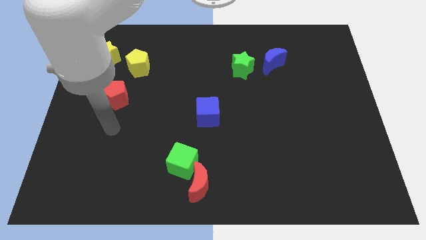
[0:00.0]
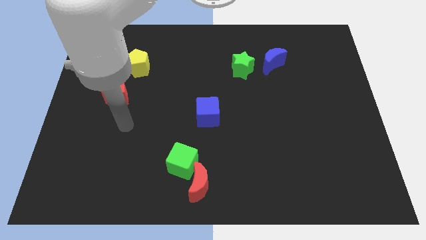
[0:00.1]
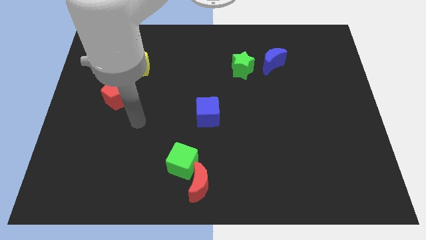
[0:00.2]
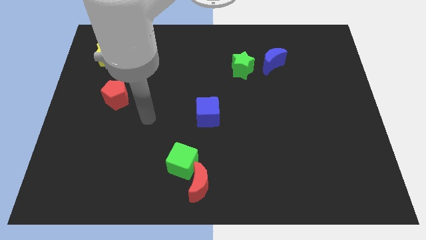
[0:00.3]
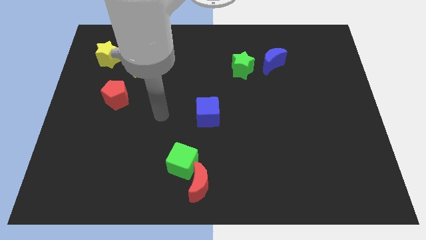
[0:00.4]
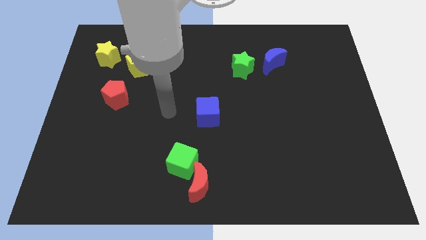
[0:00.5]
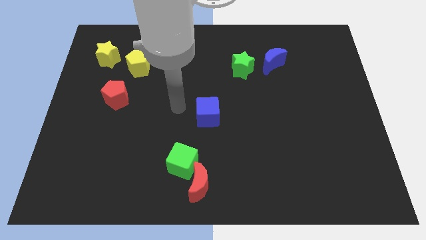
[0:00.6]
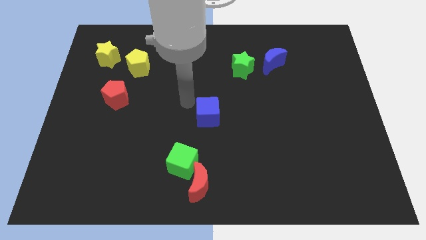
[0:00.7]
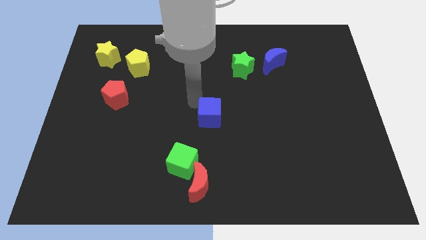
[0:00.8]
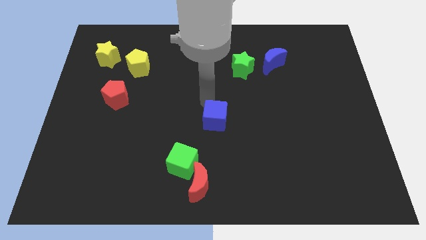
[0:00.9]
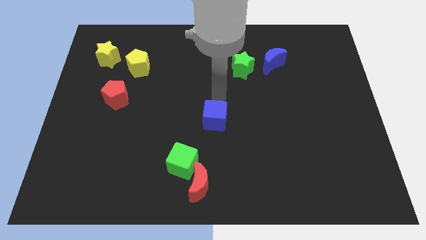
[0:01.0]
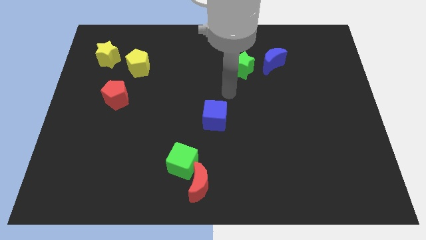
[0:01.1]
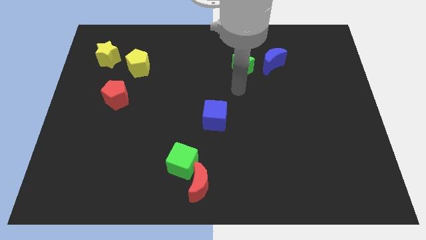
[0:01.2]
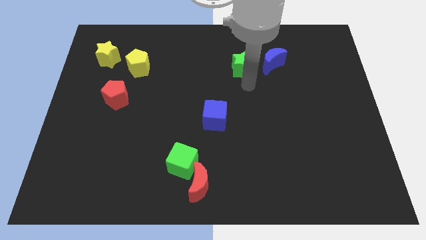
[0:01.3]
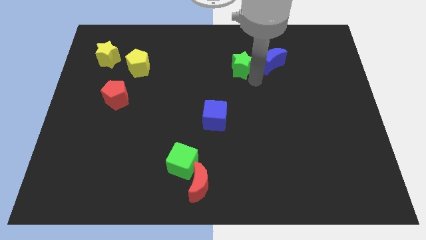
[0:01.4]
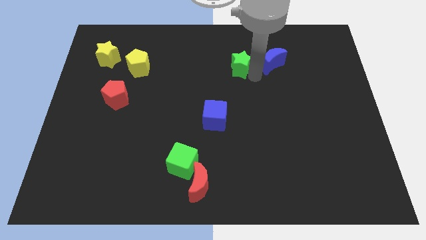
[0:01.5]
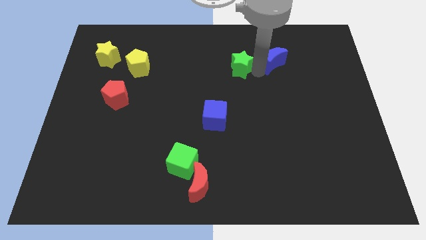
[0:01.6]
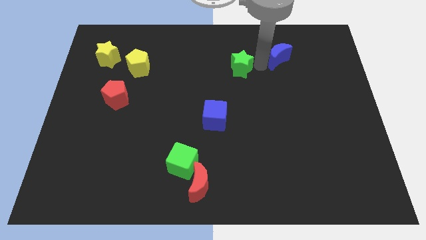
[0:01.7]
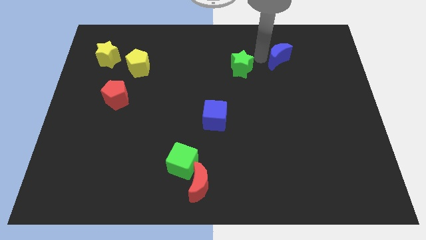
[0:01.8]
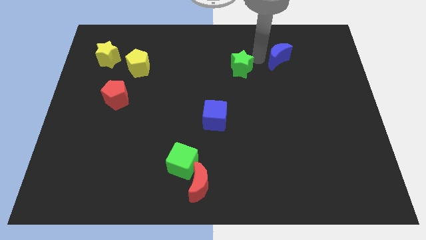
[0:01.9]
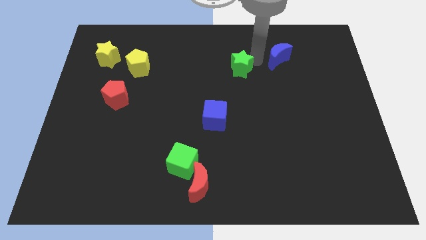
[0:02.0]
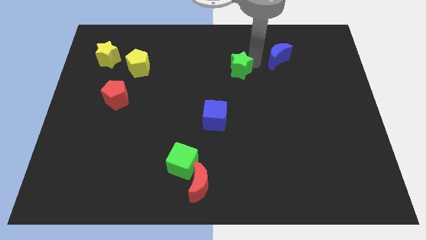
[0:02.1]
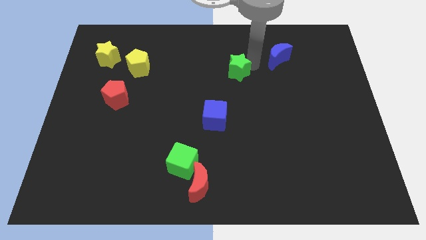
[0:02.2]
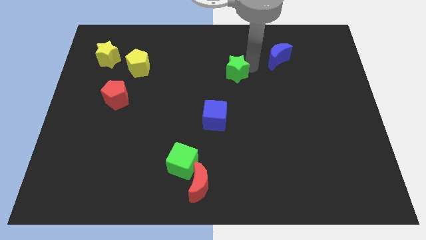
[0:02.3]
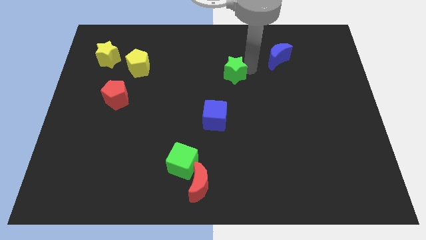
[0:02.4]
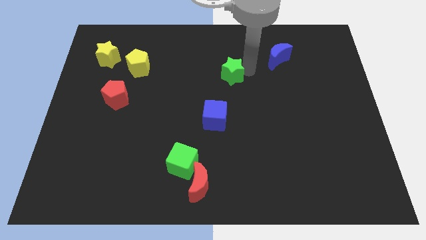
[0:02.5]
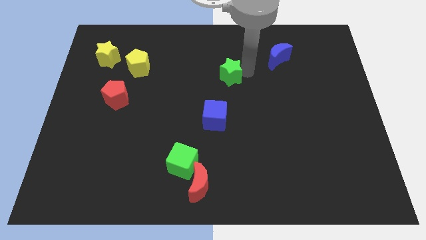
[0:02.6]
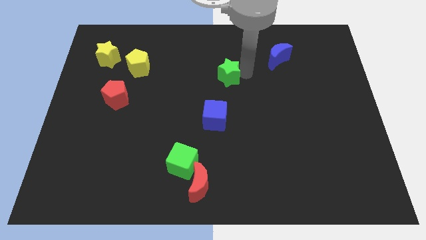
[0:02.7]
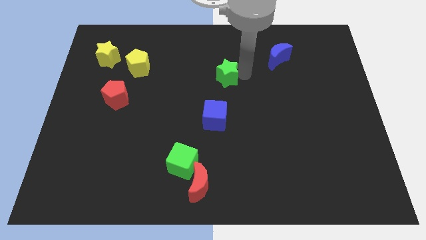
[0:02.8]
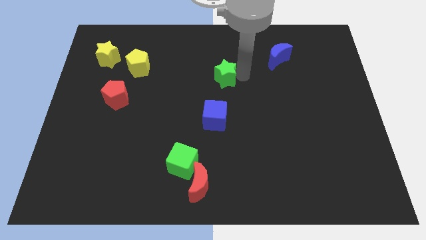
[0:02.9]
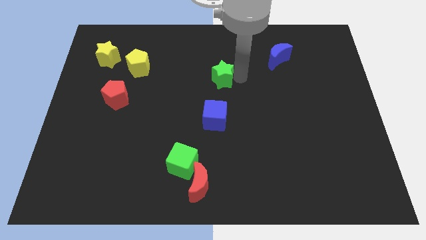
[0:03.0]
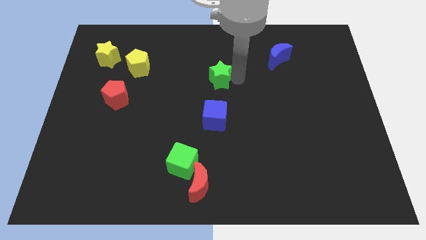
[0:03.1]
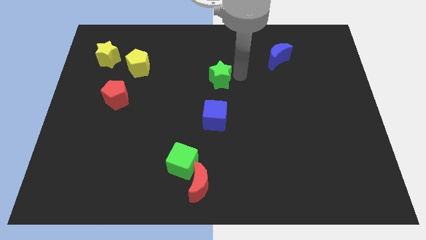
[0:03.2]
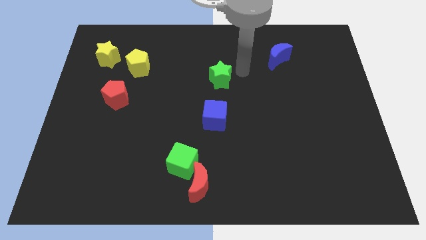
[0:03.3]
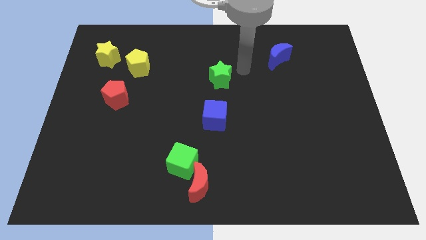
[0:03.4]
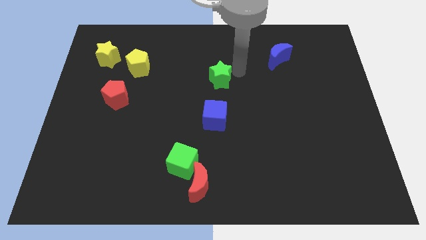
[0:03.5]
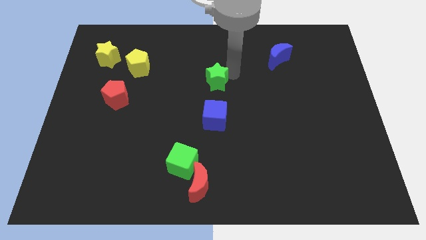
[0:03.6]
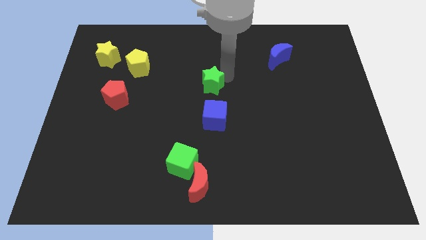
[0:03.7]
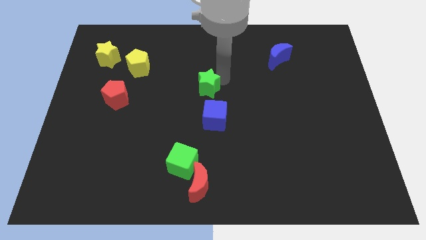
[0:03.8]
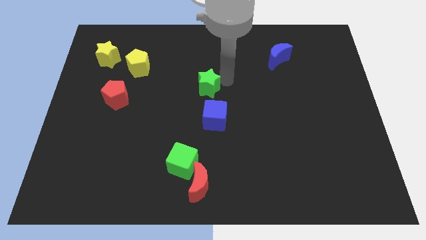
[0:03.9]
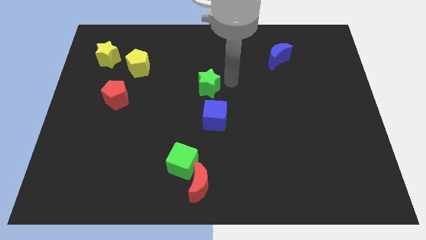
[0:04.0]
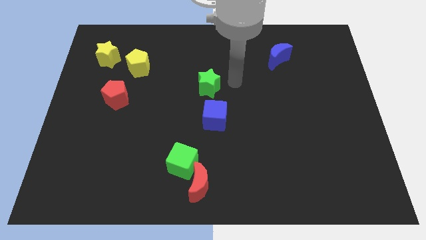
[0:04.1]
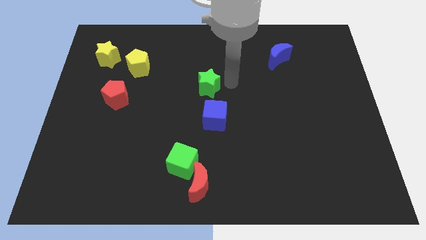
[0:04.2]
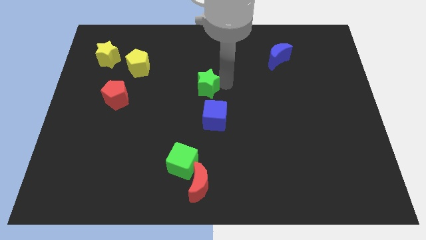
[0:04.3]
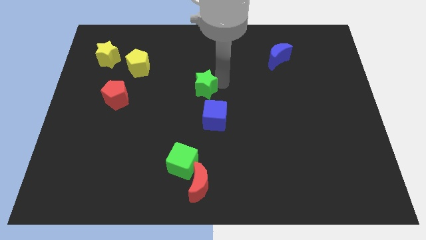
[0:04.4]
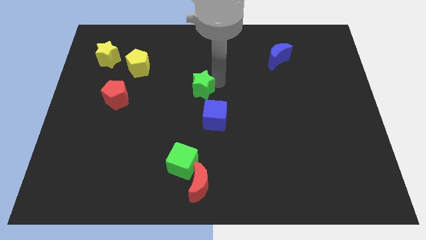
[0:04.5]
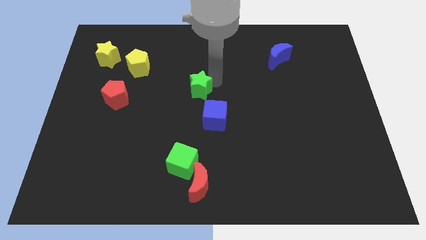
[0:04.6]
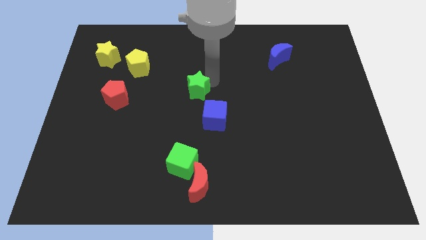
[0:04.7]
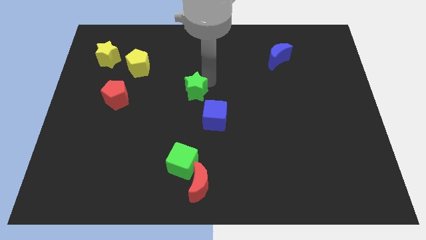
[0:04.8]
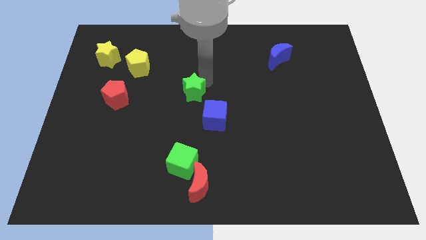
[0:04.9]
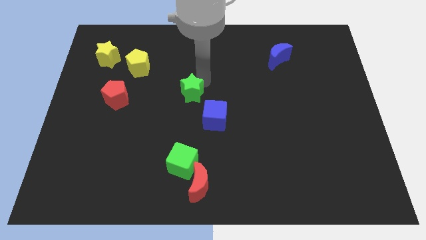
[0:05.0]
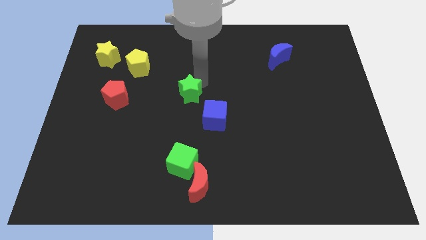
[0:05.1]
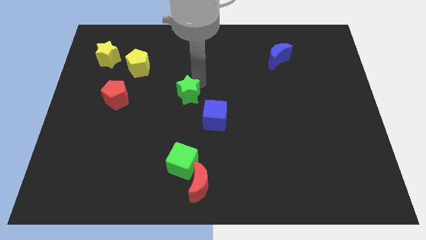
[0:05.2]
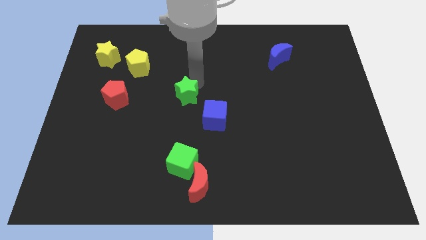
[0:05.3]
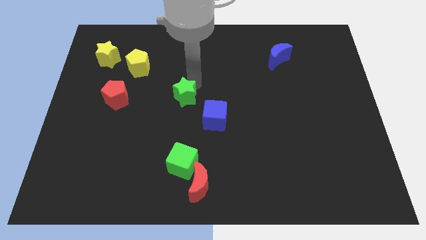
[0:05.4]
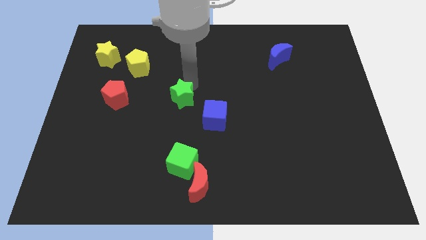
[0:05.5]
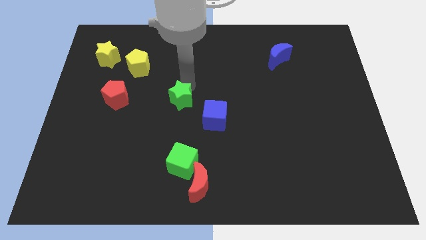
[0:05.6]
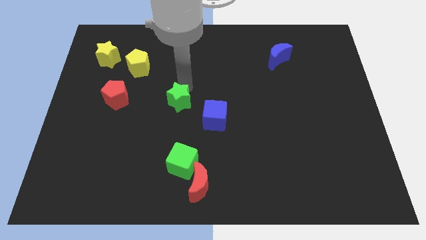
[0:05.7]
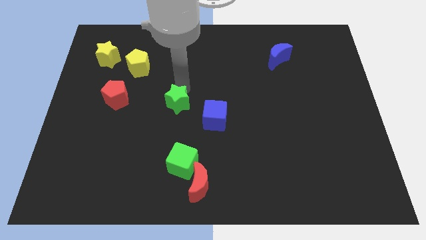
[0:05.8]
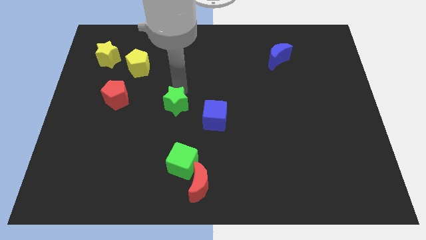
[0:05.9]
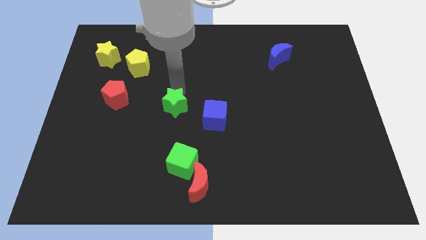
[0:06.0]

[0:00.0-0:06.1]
push the green star diagonally downwards and left

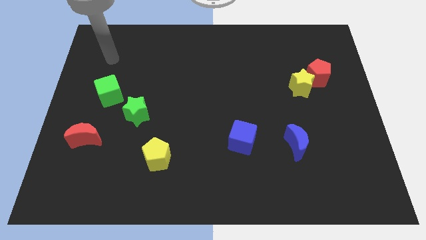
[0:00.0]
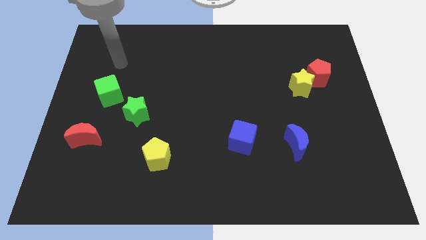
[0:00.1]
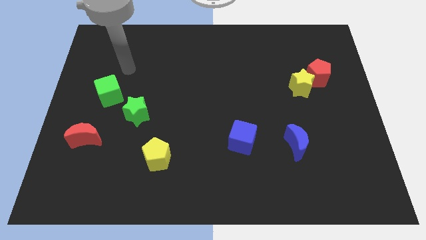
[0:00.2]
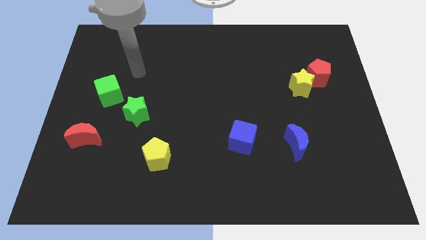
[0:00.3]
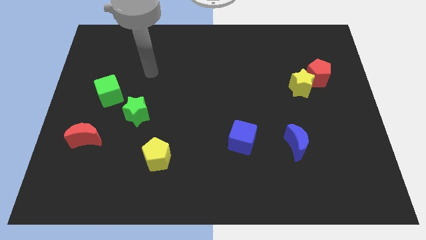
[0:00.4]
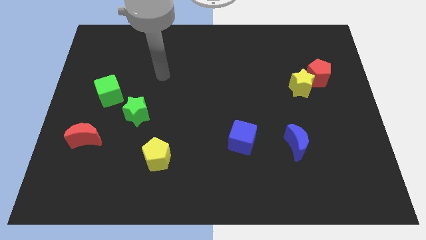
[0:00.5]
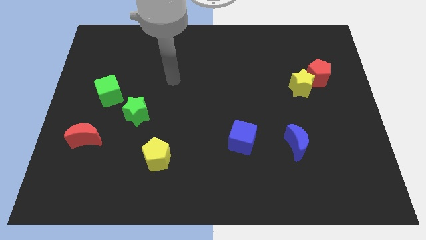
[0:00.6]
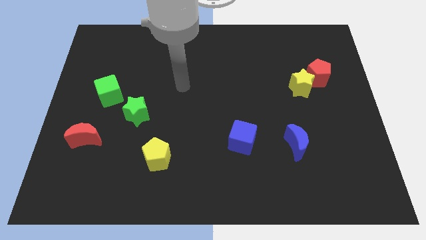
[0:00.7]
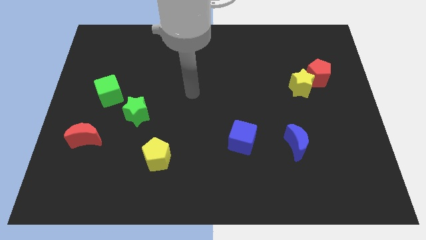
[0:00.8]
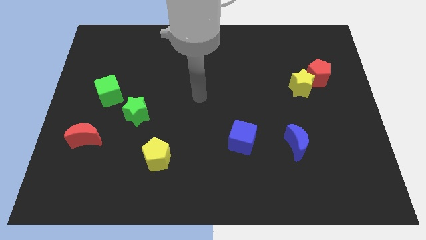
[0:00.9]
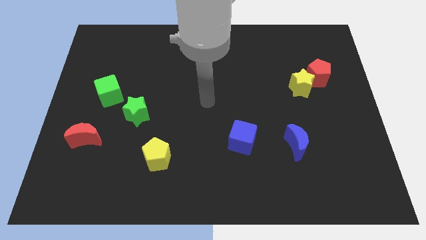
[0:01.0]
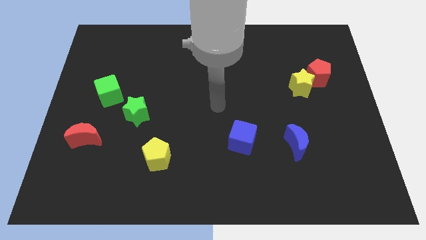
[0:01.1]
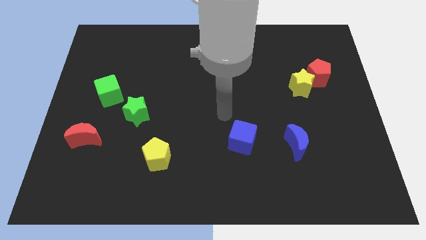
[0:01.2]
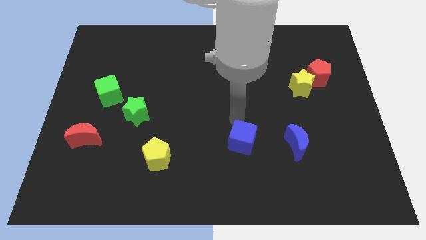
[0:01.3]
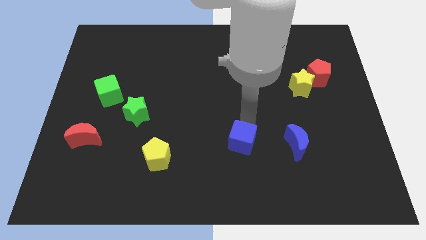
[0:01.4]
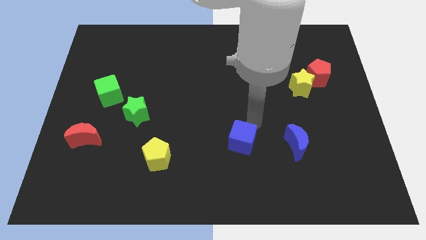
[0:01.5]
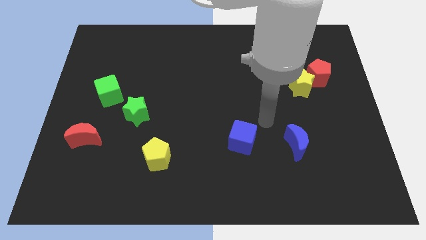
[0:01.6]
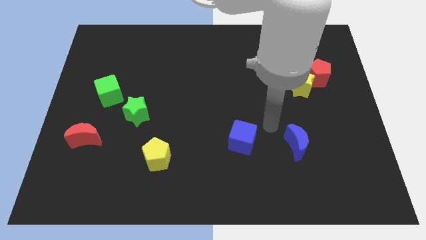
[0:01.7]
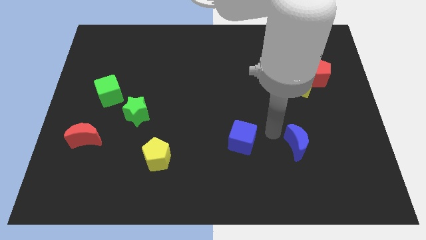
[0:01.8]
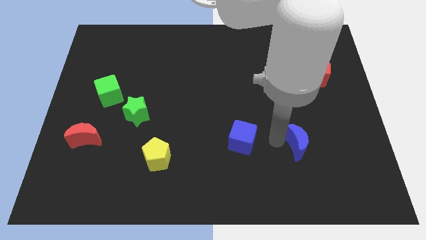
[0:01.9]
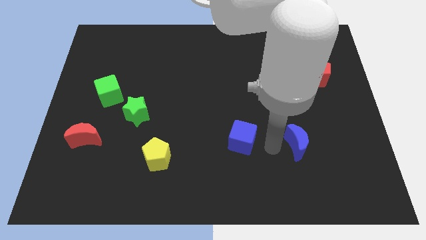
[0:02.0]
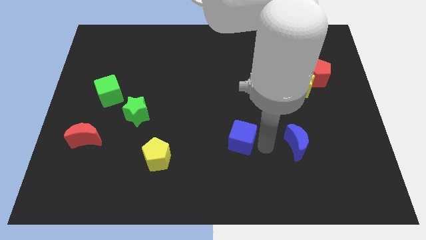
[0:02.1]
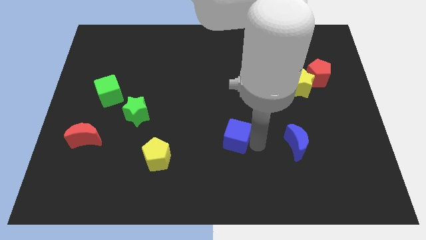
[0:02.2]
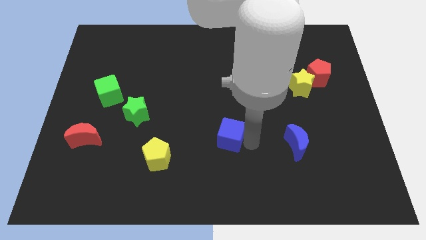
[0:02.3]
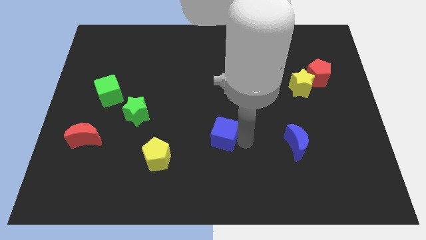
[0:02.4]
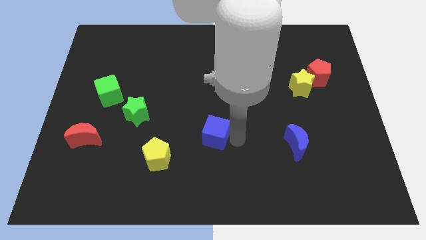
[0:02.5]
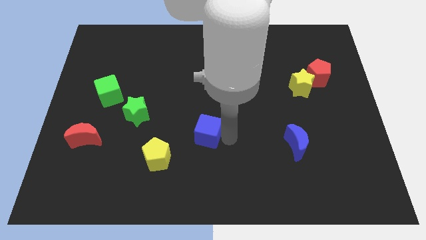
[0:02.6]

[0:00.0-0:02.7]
slightly move the blue cube left
